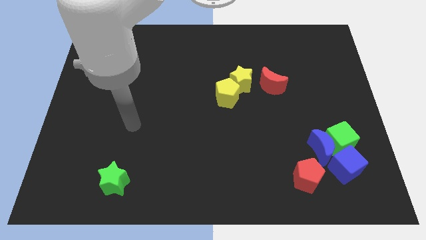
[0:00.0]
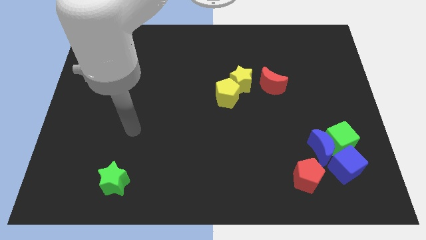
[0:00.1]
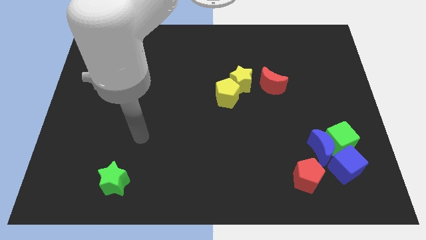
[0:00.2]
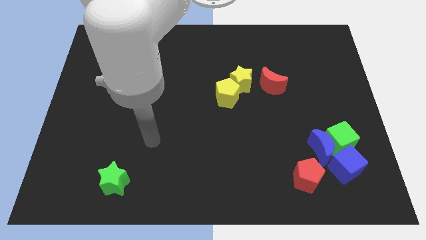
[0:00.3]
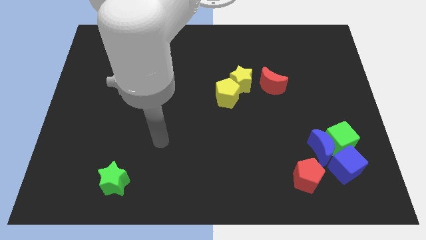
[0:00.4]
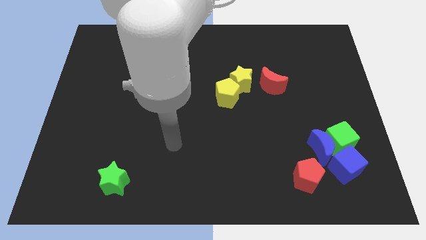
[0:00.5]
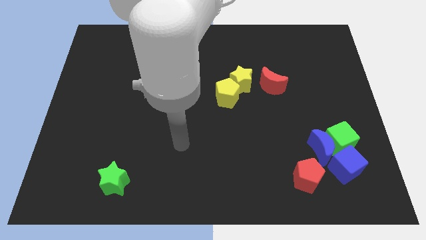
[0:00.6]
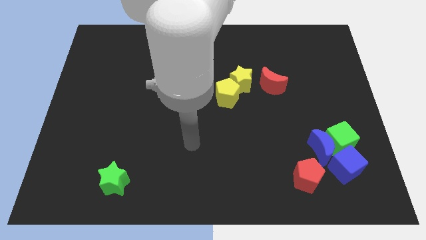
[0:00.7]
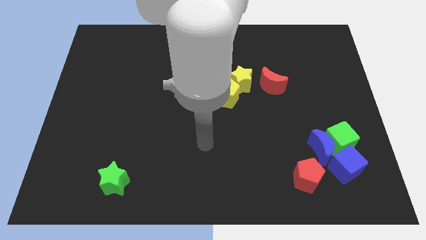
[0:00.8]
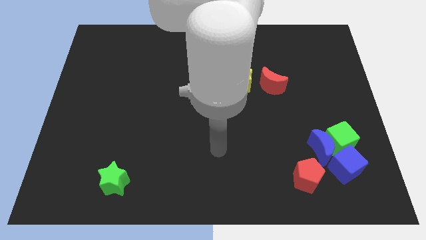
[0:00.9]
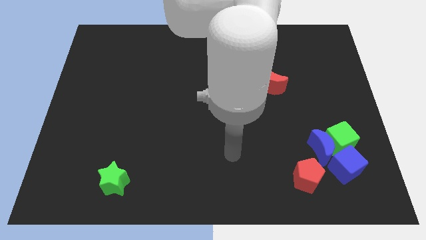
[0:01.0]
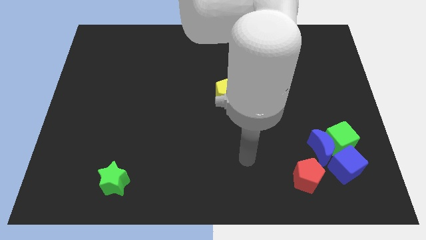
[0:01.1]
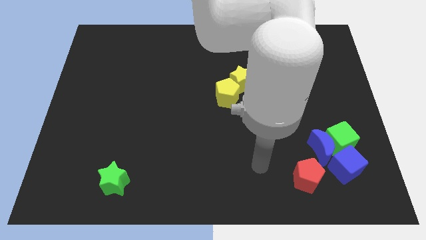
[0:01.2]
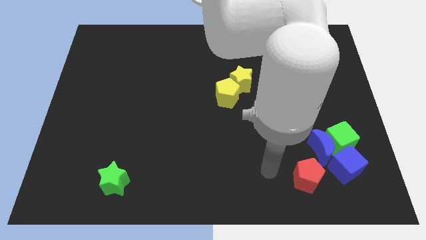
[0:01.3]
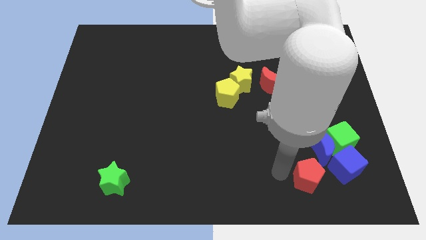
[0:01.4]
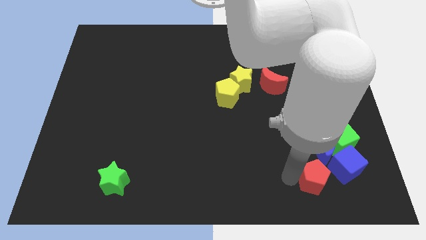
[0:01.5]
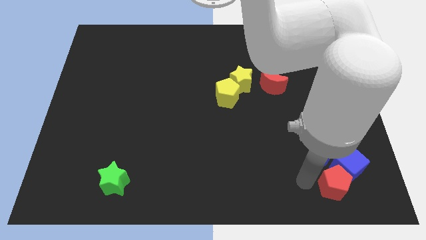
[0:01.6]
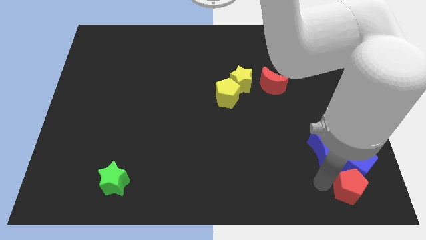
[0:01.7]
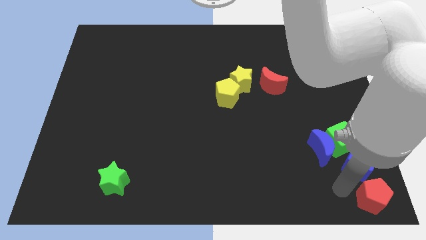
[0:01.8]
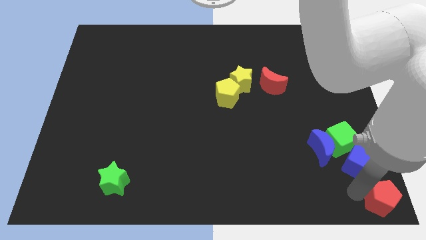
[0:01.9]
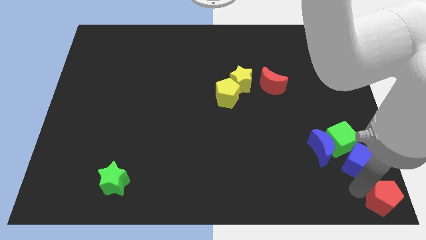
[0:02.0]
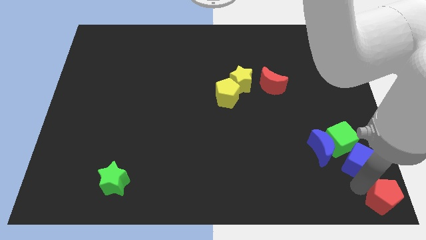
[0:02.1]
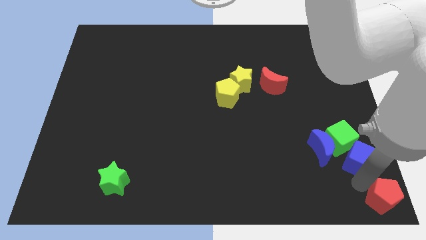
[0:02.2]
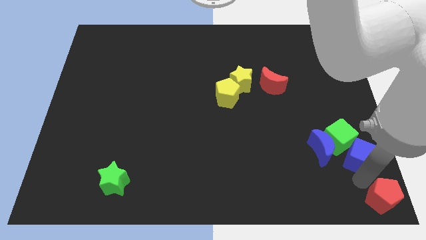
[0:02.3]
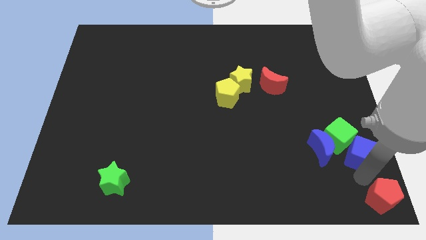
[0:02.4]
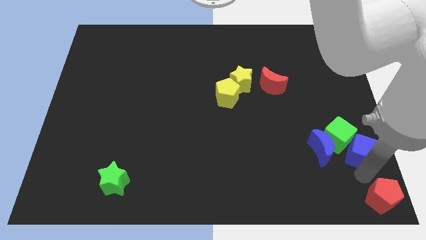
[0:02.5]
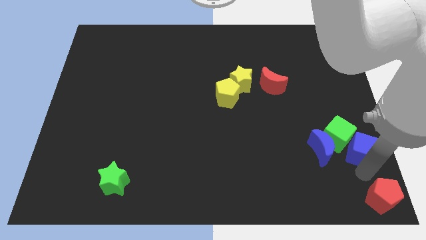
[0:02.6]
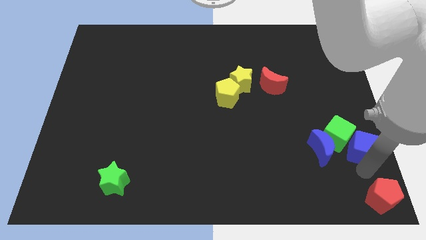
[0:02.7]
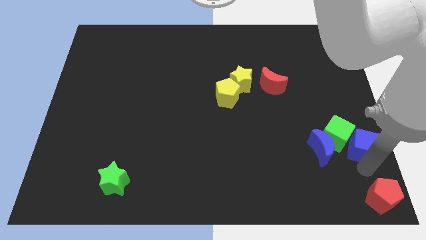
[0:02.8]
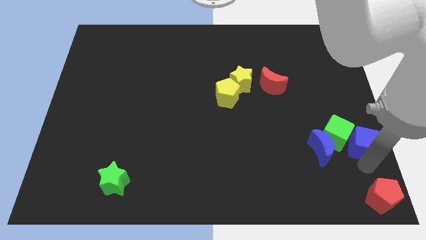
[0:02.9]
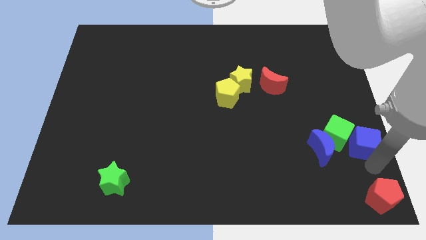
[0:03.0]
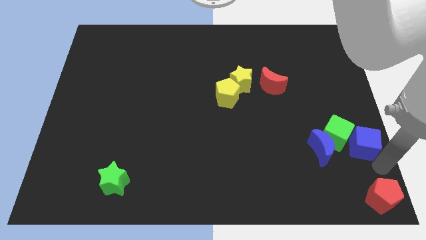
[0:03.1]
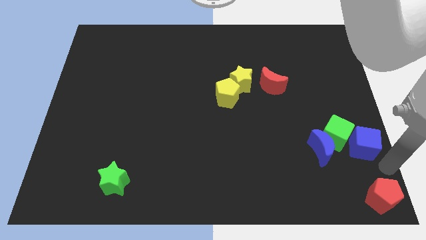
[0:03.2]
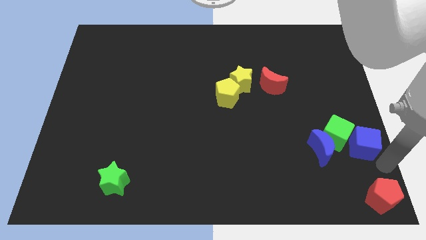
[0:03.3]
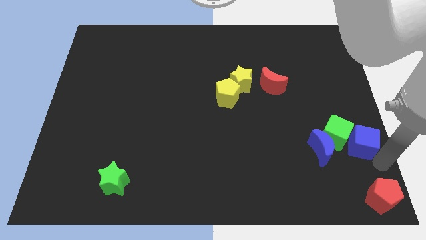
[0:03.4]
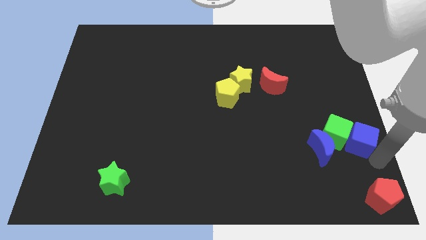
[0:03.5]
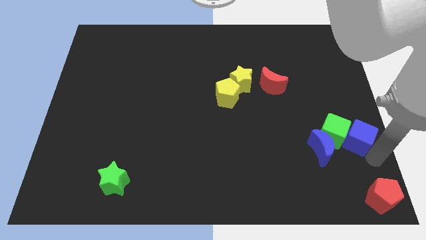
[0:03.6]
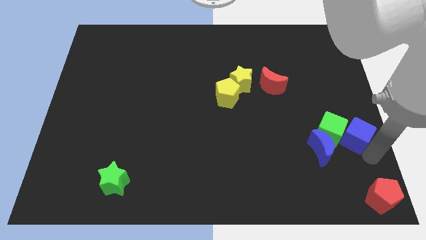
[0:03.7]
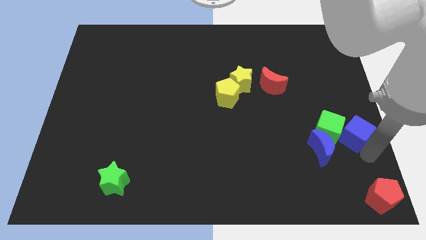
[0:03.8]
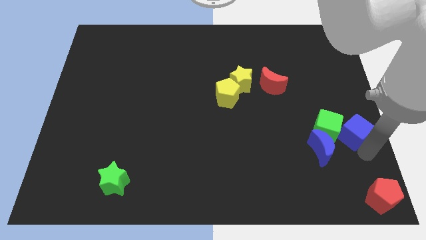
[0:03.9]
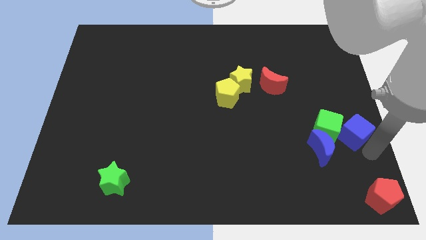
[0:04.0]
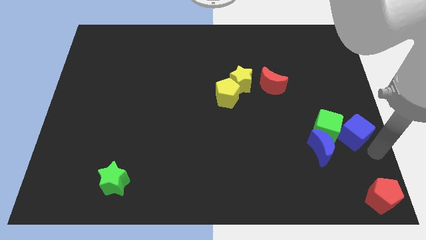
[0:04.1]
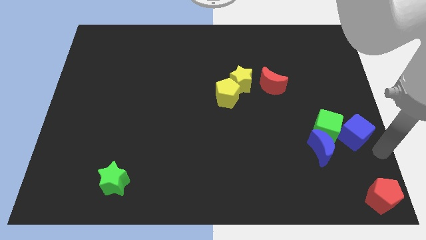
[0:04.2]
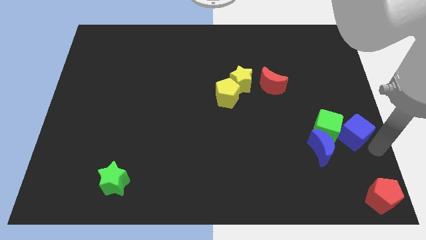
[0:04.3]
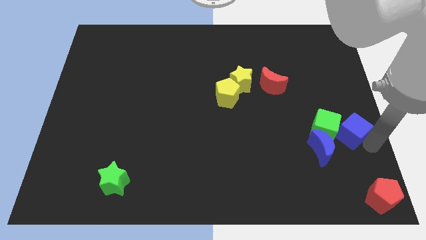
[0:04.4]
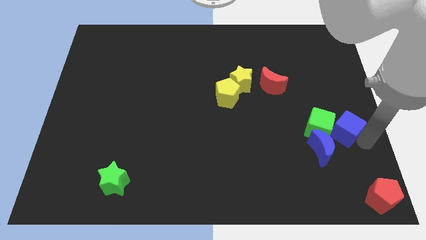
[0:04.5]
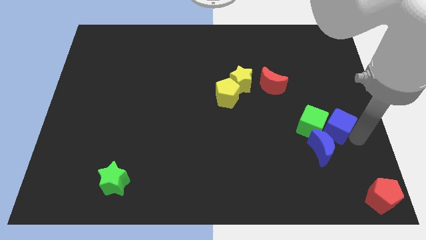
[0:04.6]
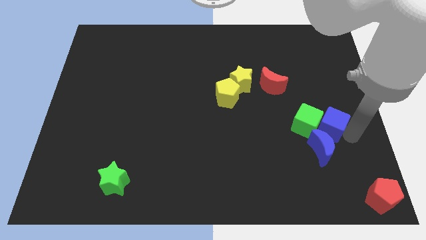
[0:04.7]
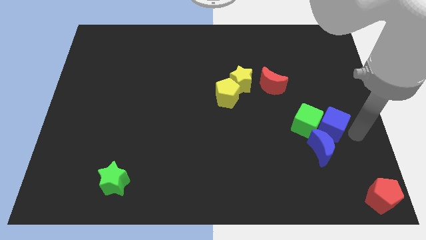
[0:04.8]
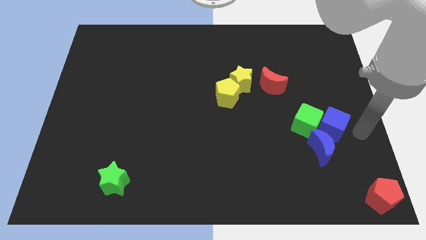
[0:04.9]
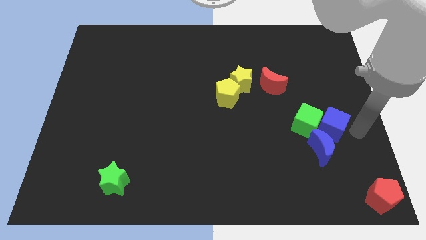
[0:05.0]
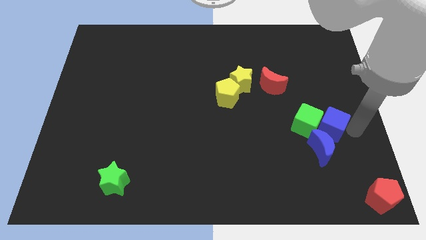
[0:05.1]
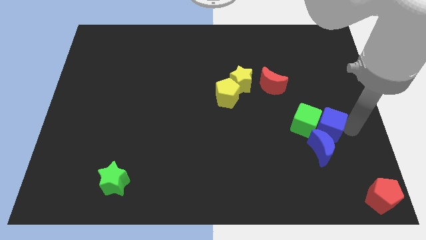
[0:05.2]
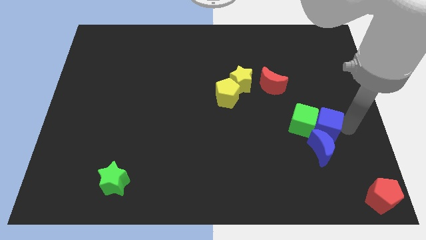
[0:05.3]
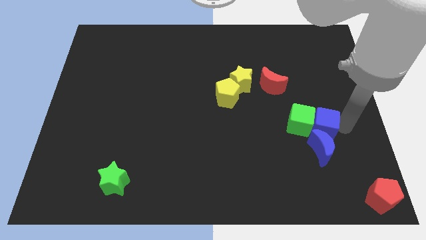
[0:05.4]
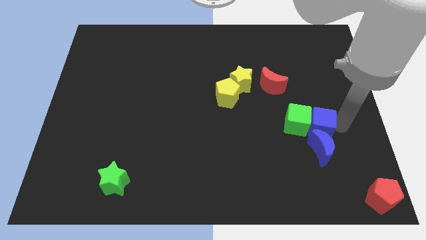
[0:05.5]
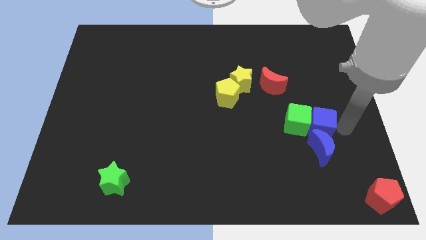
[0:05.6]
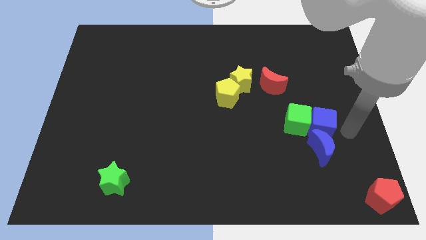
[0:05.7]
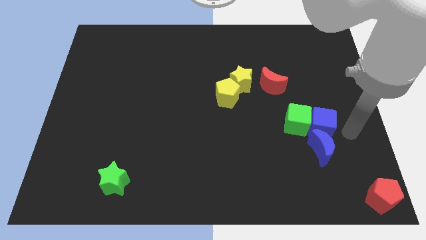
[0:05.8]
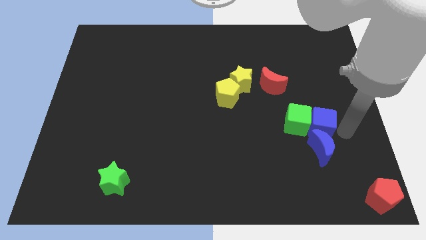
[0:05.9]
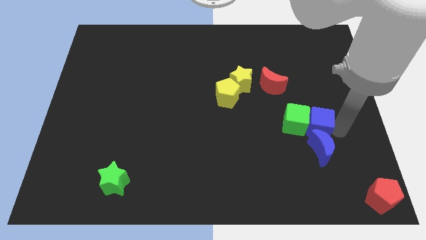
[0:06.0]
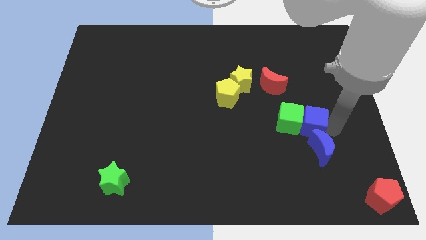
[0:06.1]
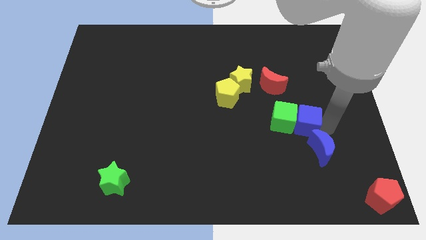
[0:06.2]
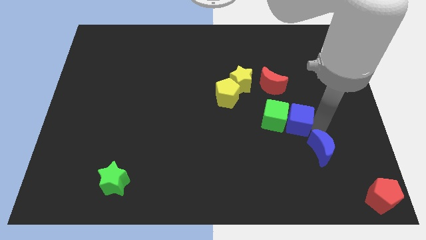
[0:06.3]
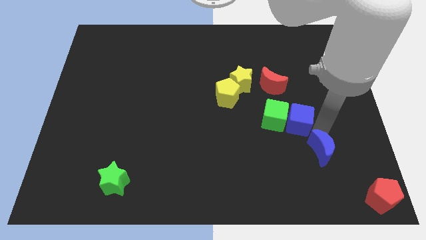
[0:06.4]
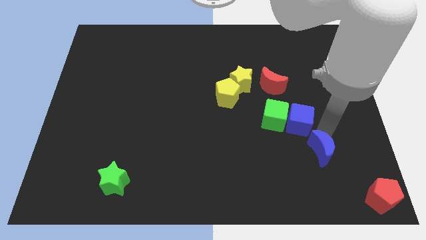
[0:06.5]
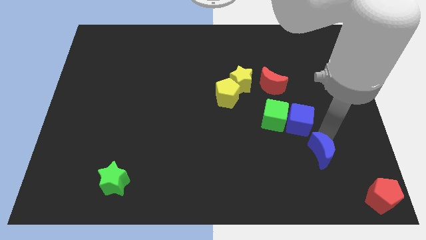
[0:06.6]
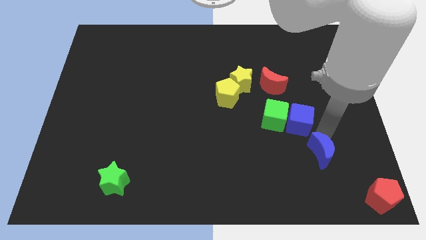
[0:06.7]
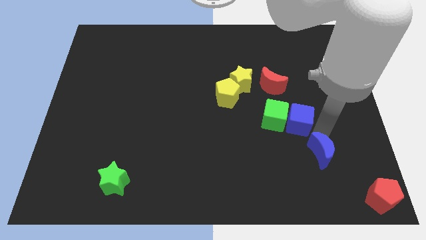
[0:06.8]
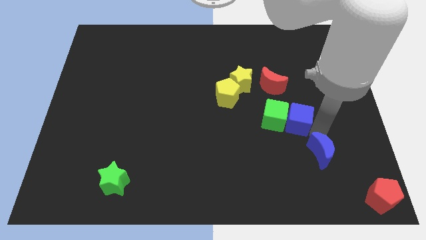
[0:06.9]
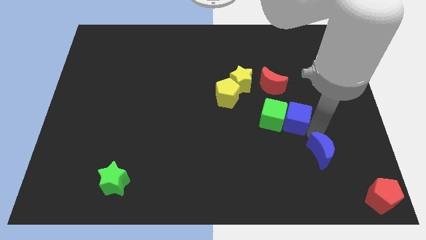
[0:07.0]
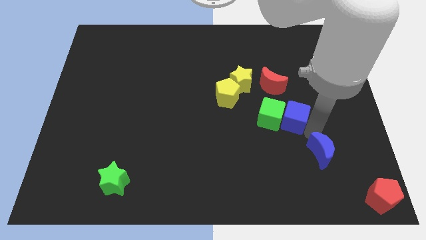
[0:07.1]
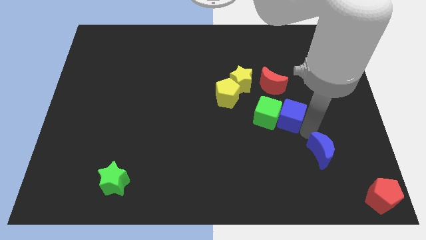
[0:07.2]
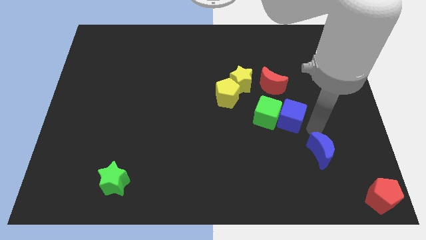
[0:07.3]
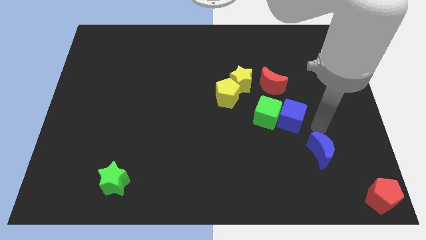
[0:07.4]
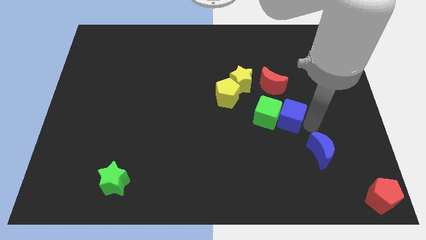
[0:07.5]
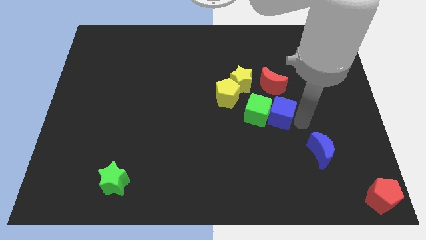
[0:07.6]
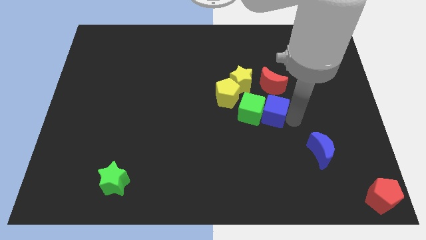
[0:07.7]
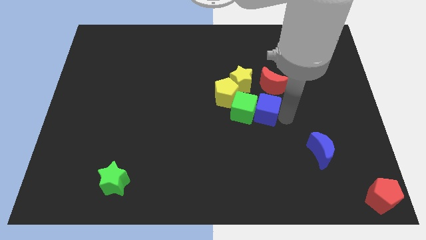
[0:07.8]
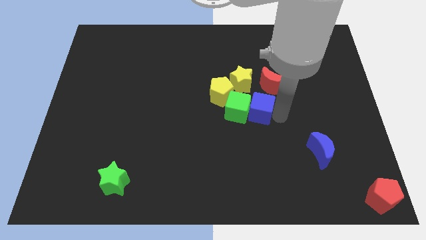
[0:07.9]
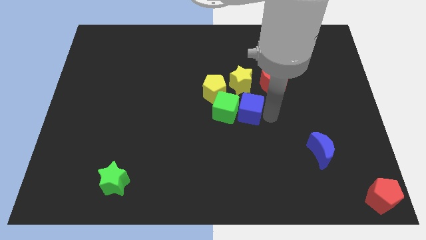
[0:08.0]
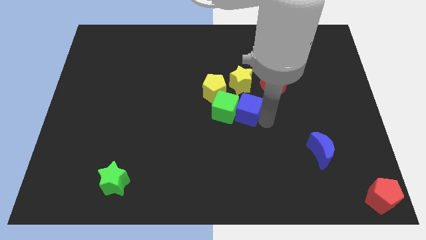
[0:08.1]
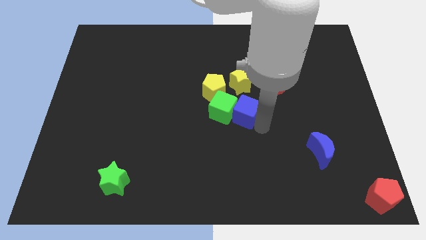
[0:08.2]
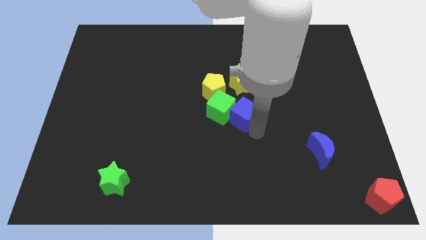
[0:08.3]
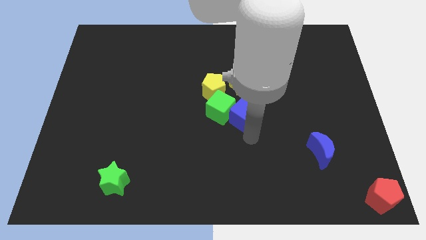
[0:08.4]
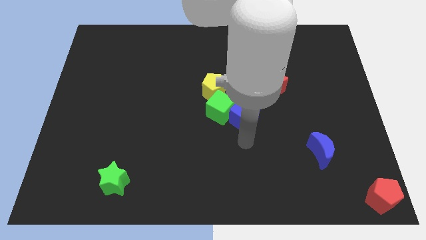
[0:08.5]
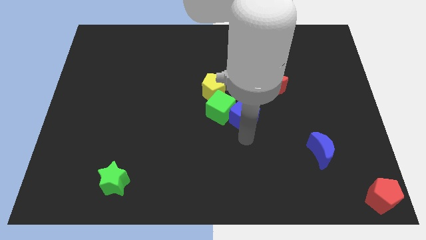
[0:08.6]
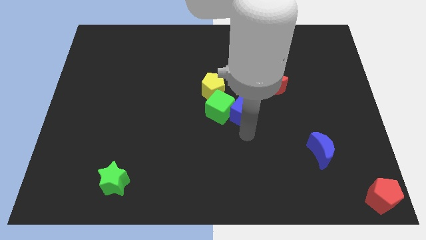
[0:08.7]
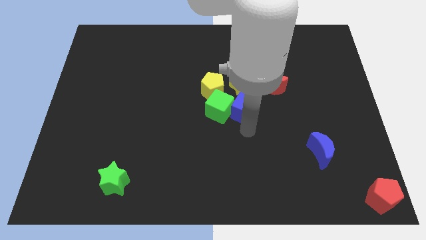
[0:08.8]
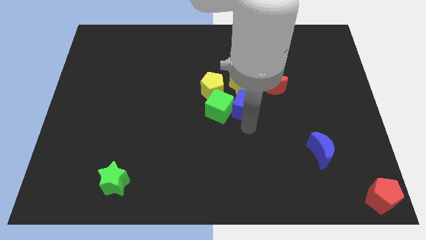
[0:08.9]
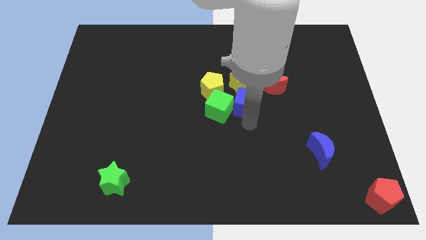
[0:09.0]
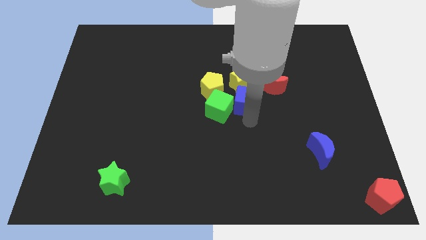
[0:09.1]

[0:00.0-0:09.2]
push the blue cube next to the yellow star
